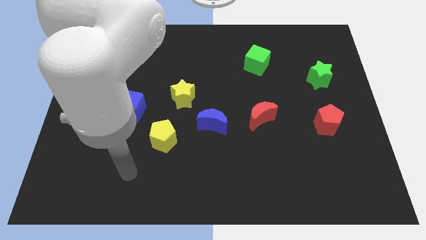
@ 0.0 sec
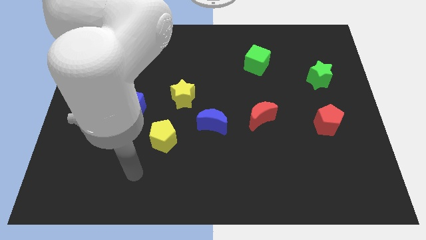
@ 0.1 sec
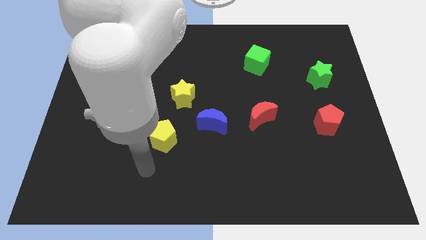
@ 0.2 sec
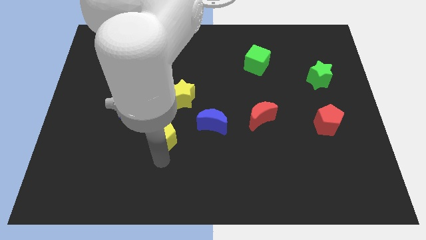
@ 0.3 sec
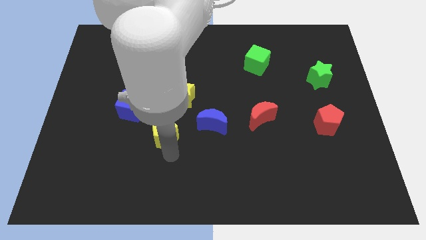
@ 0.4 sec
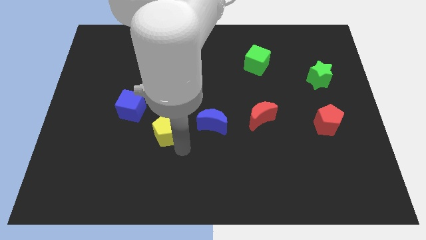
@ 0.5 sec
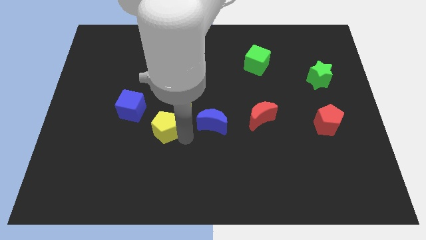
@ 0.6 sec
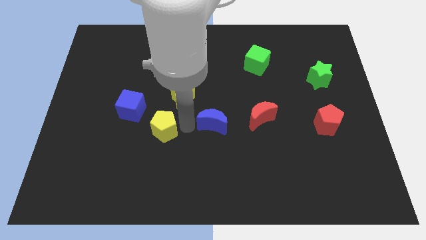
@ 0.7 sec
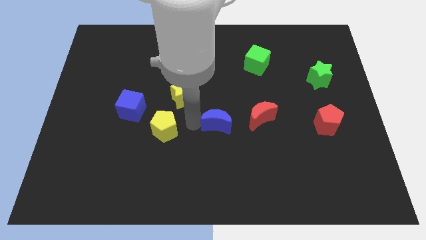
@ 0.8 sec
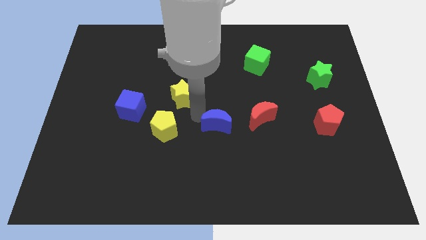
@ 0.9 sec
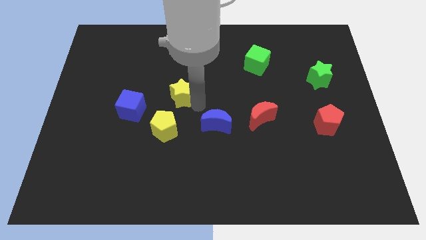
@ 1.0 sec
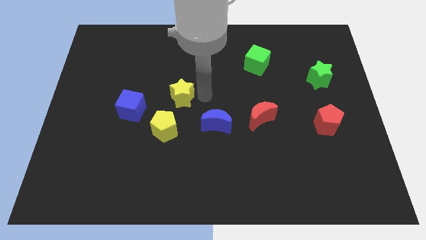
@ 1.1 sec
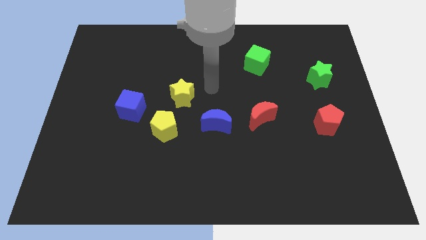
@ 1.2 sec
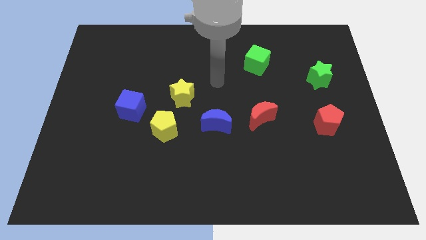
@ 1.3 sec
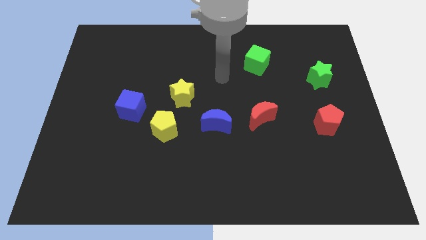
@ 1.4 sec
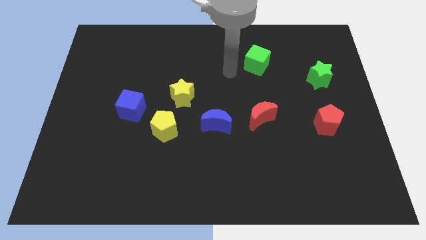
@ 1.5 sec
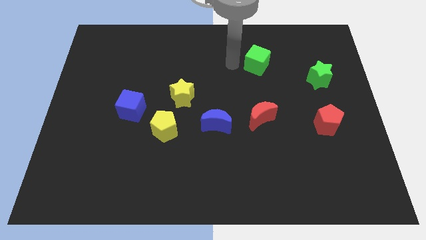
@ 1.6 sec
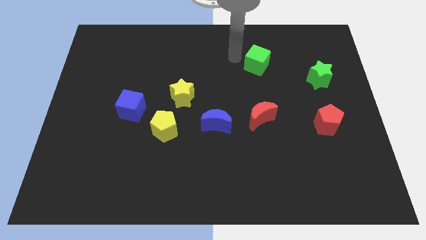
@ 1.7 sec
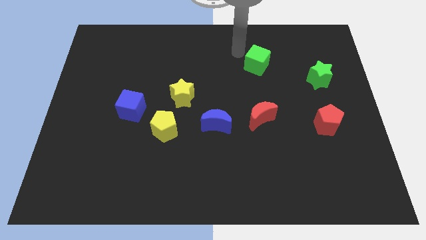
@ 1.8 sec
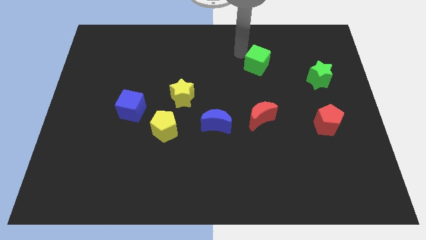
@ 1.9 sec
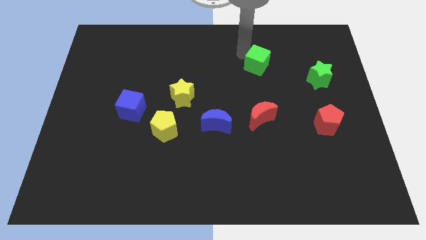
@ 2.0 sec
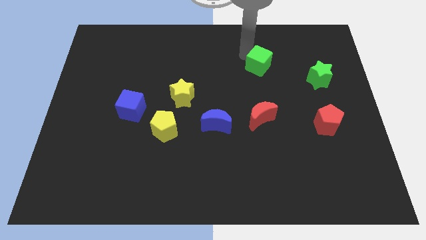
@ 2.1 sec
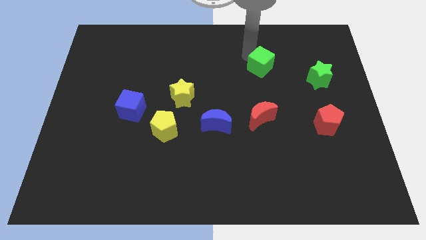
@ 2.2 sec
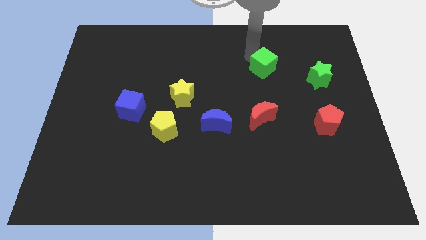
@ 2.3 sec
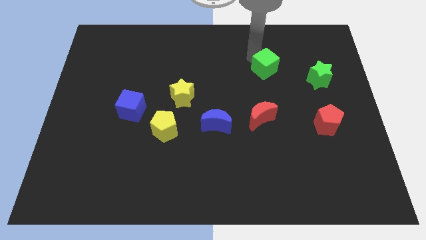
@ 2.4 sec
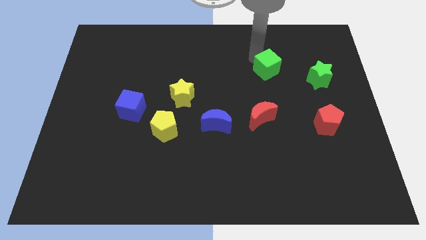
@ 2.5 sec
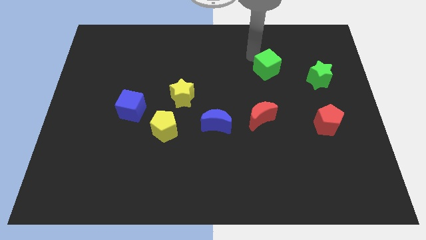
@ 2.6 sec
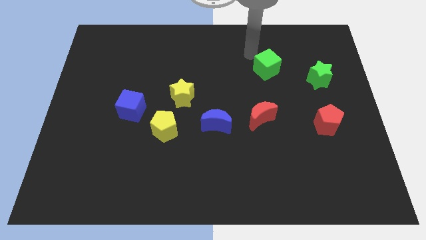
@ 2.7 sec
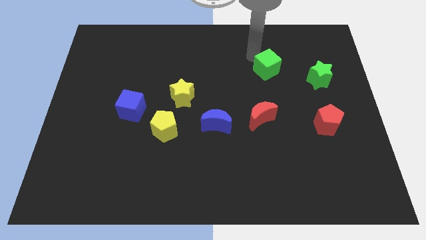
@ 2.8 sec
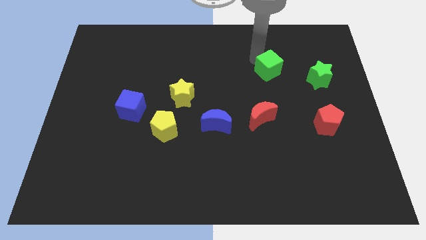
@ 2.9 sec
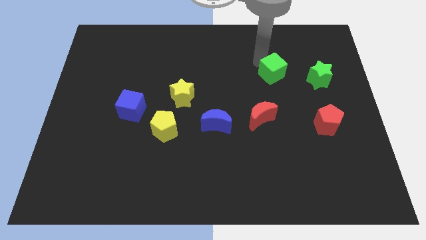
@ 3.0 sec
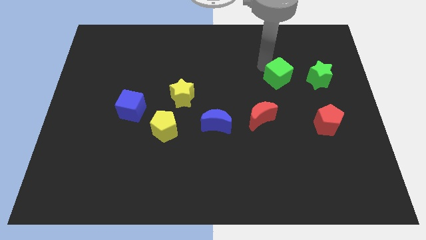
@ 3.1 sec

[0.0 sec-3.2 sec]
slightly slide the green cube diagonally down and right

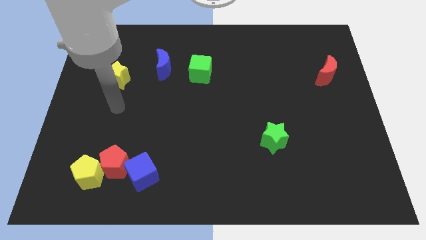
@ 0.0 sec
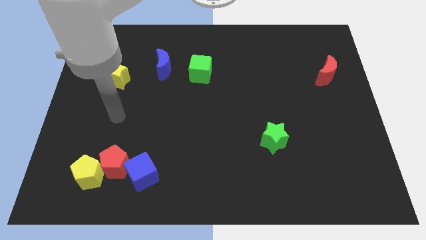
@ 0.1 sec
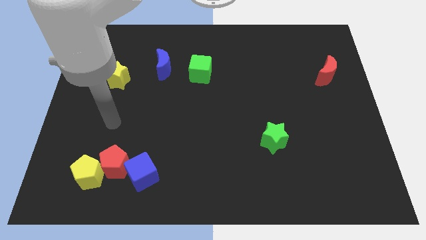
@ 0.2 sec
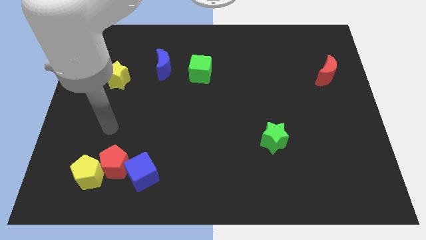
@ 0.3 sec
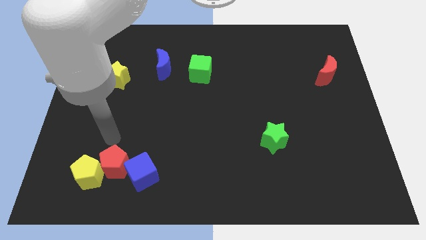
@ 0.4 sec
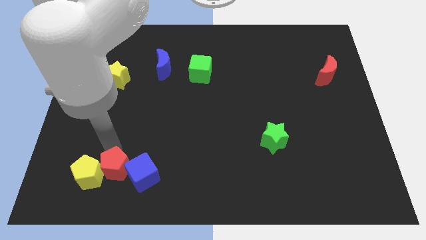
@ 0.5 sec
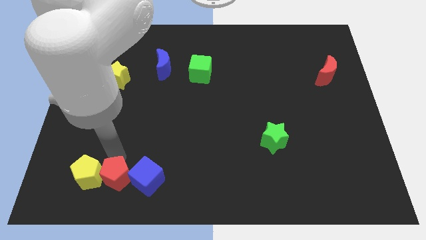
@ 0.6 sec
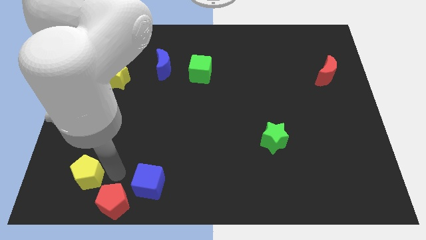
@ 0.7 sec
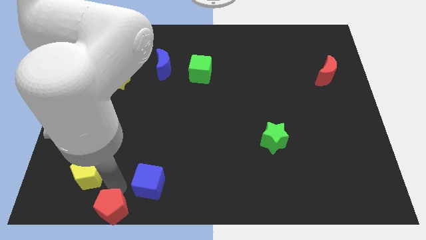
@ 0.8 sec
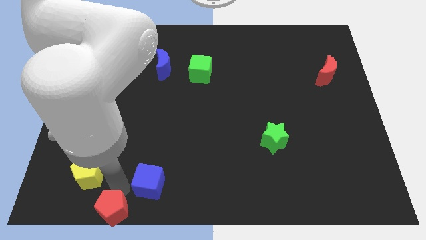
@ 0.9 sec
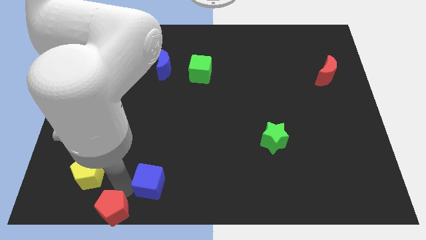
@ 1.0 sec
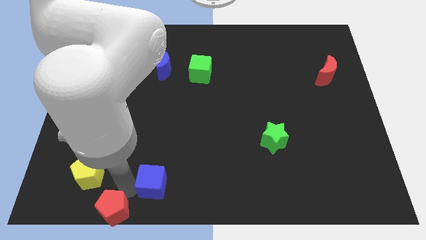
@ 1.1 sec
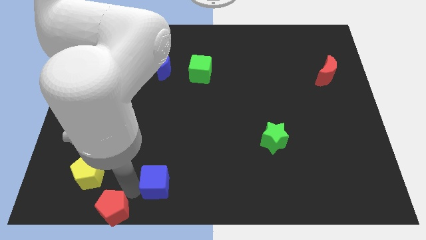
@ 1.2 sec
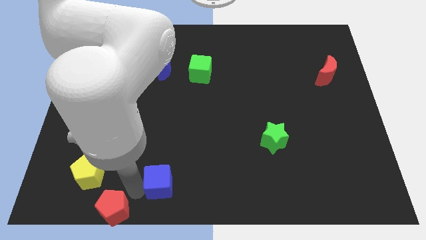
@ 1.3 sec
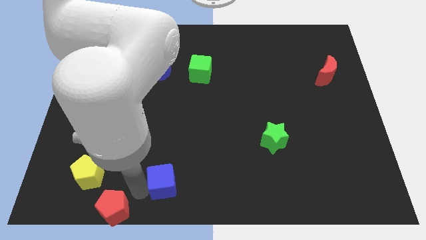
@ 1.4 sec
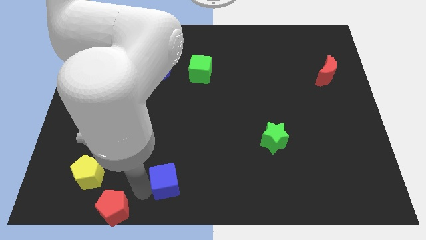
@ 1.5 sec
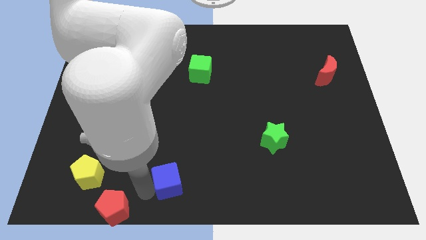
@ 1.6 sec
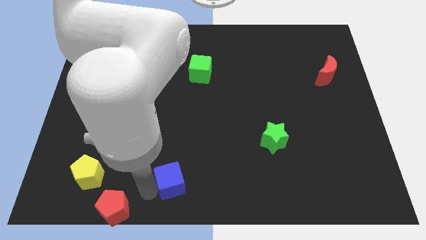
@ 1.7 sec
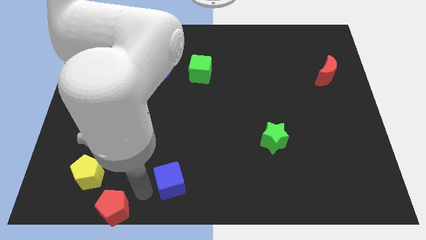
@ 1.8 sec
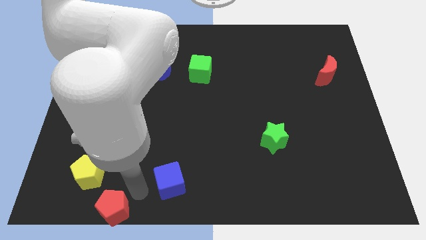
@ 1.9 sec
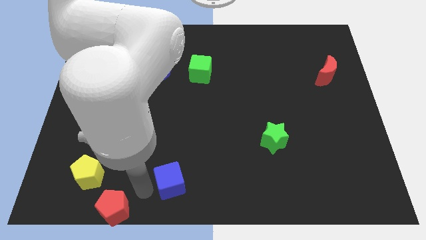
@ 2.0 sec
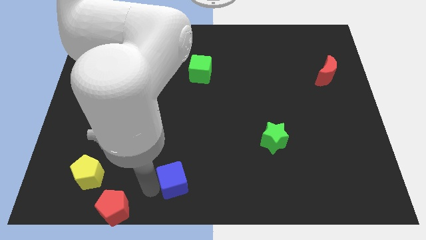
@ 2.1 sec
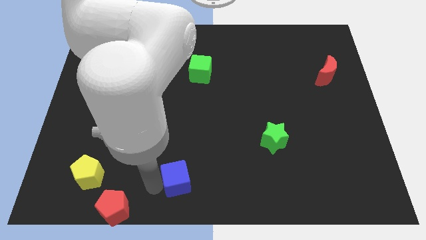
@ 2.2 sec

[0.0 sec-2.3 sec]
slightly move the blue cube right

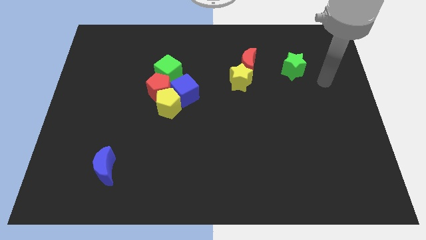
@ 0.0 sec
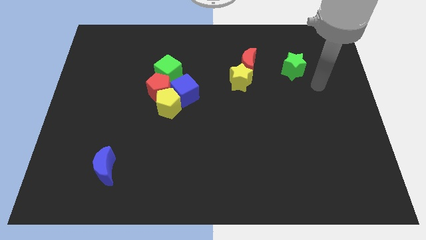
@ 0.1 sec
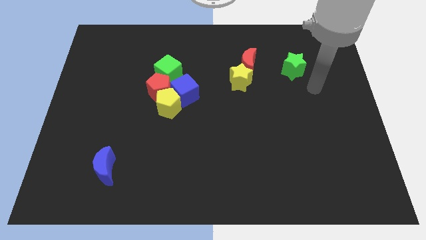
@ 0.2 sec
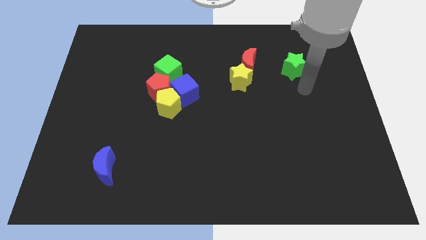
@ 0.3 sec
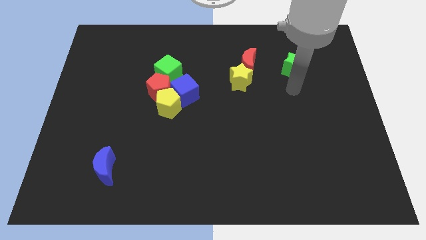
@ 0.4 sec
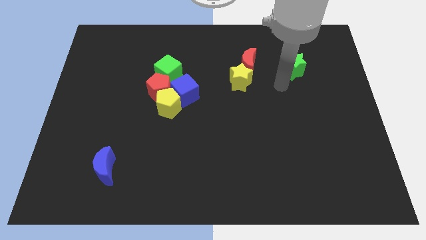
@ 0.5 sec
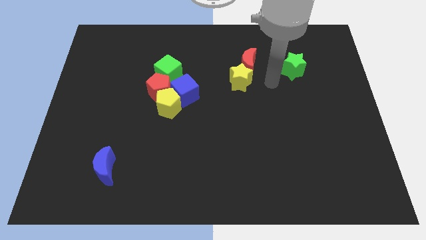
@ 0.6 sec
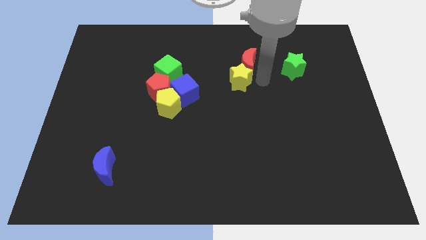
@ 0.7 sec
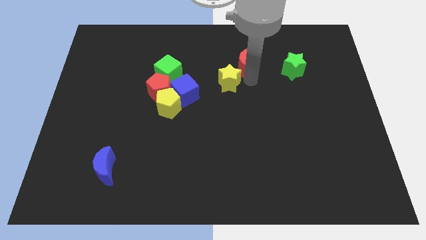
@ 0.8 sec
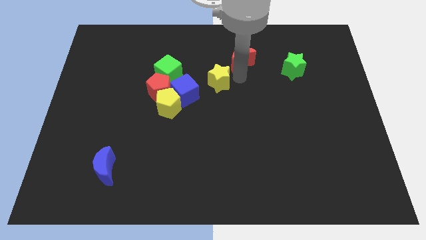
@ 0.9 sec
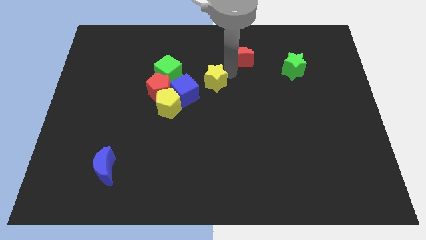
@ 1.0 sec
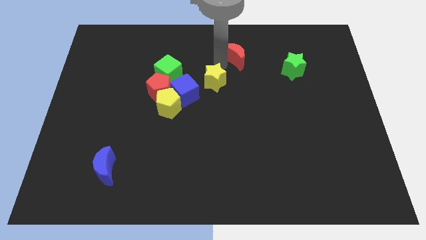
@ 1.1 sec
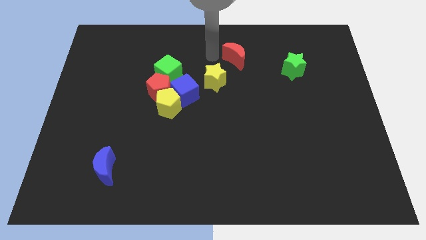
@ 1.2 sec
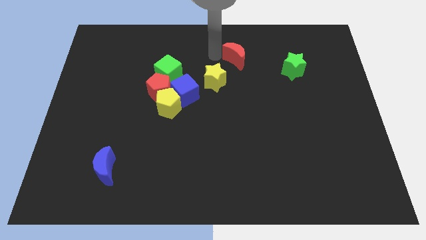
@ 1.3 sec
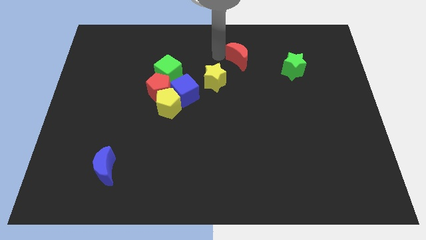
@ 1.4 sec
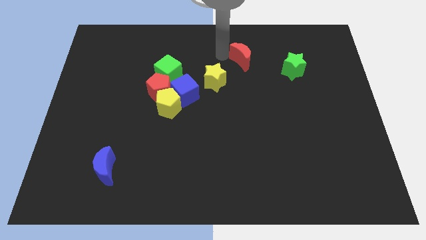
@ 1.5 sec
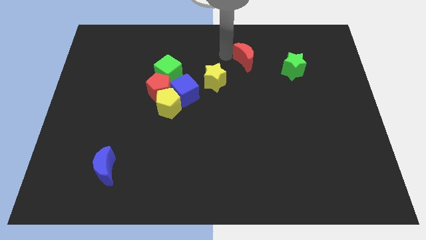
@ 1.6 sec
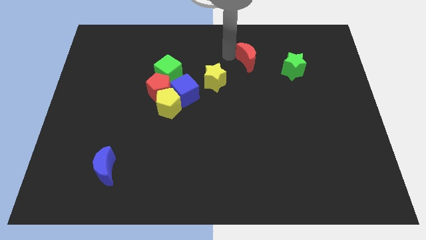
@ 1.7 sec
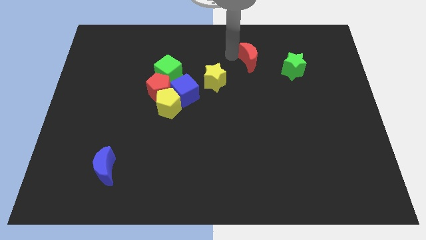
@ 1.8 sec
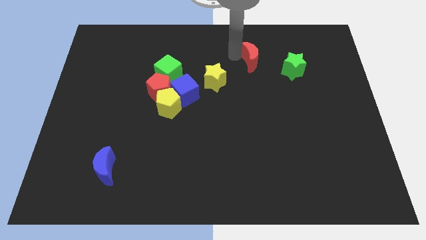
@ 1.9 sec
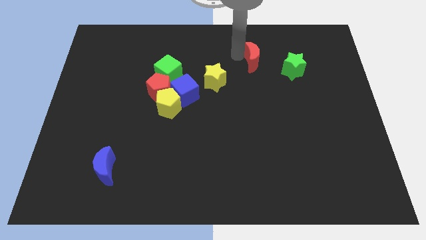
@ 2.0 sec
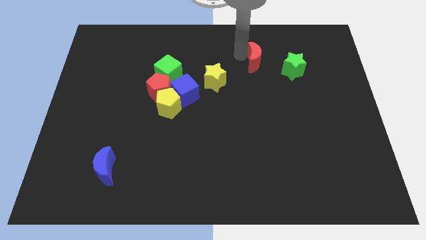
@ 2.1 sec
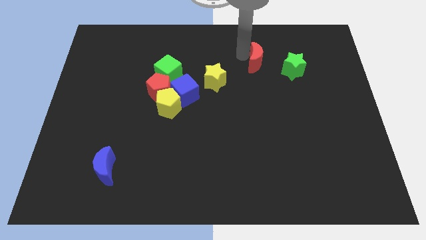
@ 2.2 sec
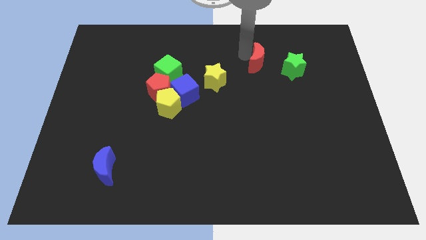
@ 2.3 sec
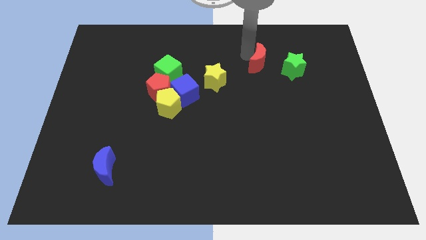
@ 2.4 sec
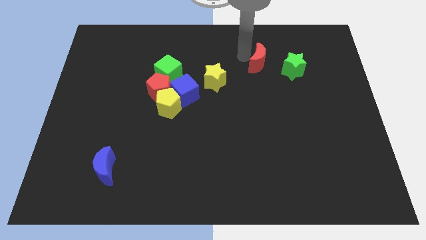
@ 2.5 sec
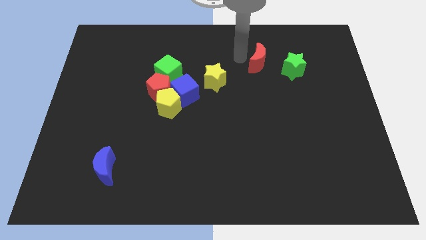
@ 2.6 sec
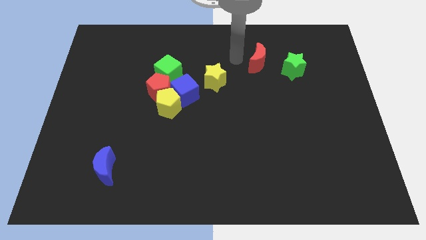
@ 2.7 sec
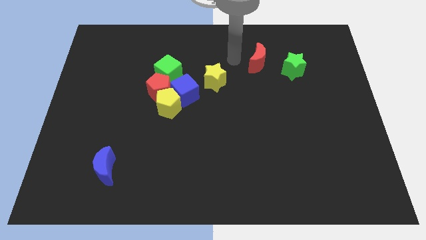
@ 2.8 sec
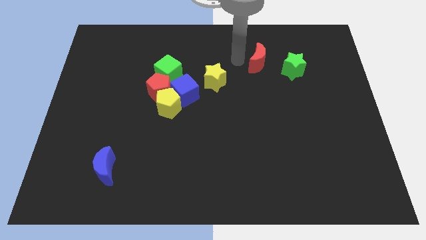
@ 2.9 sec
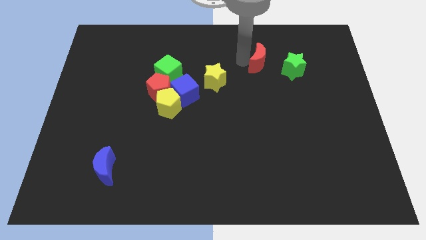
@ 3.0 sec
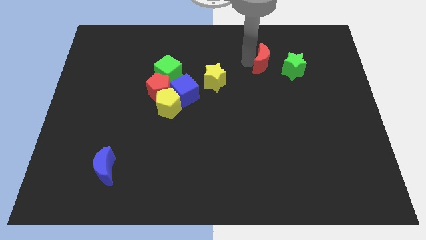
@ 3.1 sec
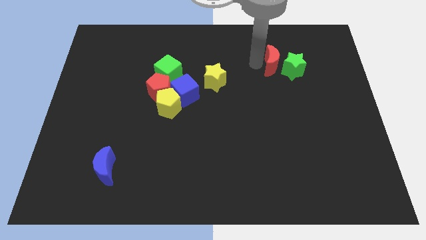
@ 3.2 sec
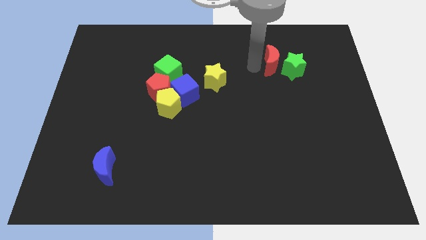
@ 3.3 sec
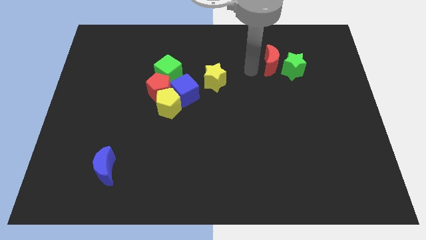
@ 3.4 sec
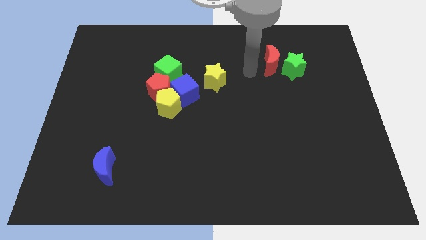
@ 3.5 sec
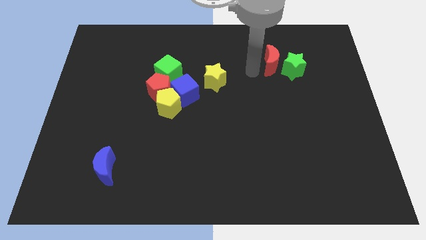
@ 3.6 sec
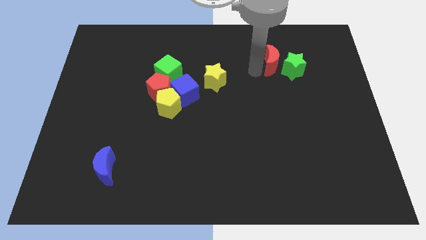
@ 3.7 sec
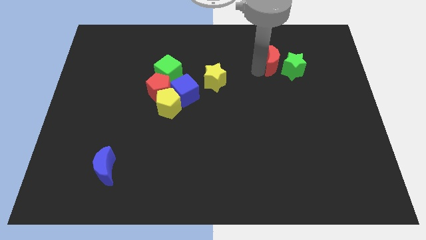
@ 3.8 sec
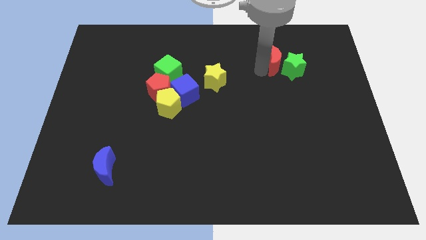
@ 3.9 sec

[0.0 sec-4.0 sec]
slide the red moon slightly to the right
